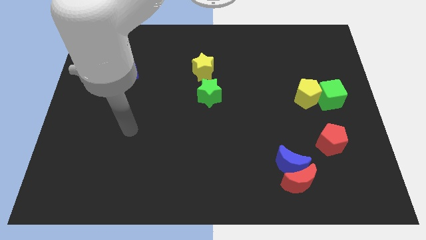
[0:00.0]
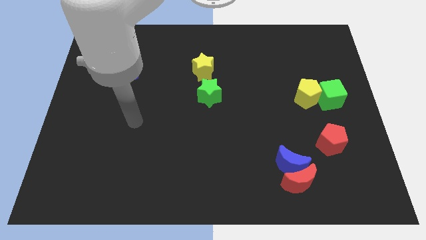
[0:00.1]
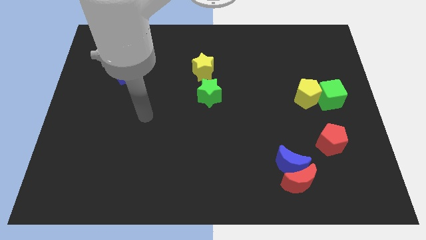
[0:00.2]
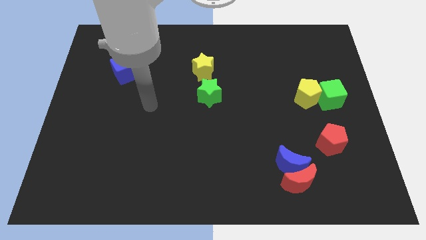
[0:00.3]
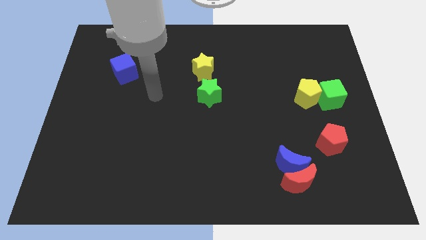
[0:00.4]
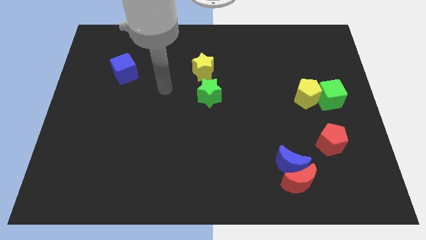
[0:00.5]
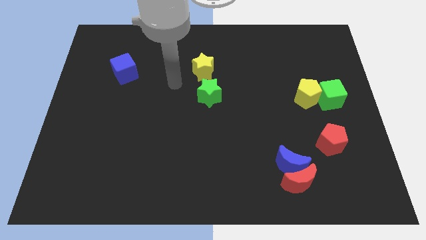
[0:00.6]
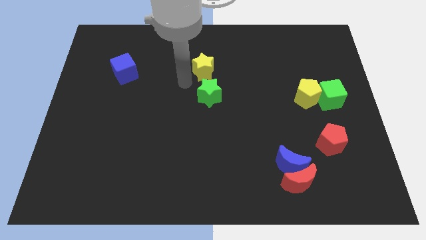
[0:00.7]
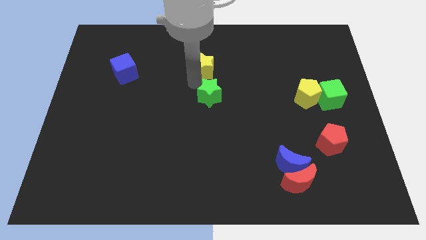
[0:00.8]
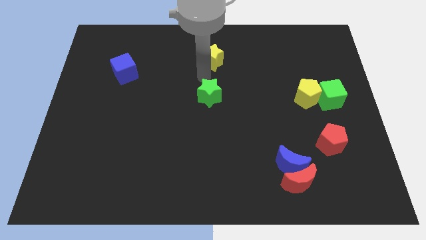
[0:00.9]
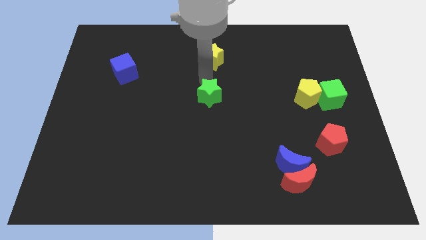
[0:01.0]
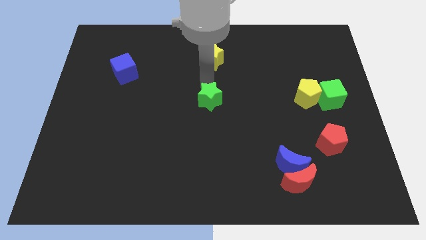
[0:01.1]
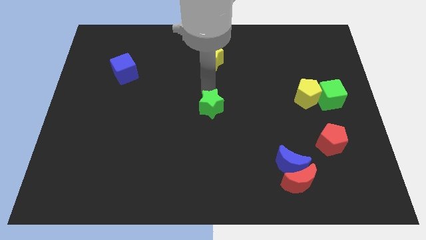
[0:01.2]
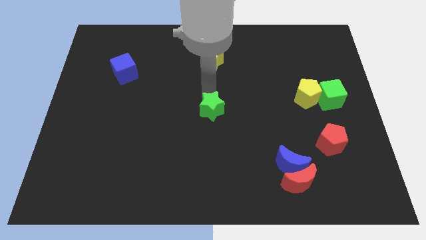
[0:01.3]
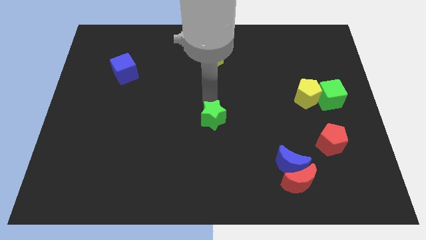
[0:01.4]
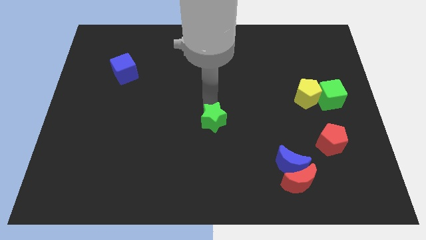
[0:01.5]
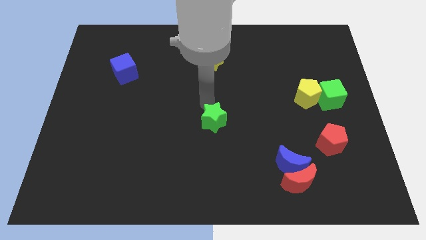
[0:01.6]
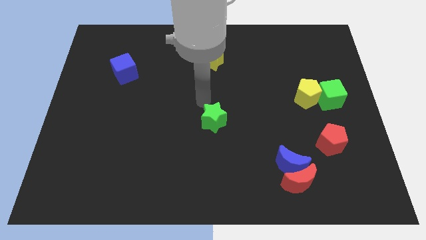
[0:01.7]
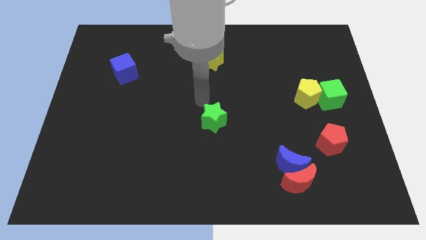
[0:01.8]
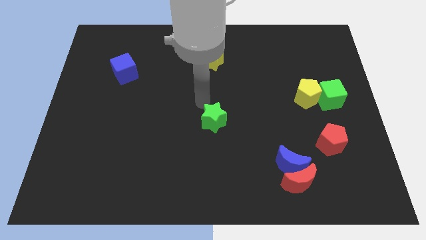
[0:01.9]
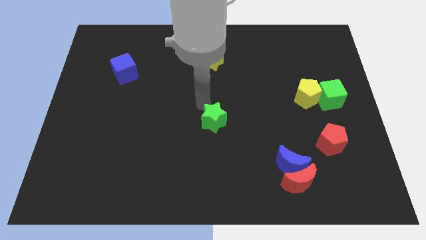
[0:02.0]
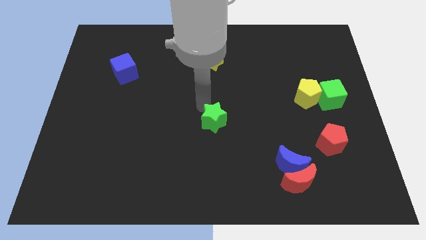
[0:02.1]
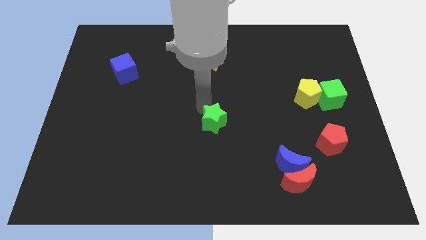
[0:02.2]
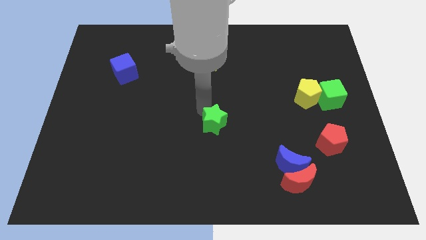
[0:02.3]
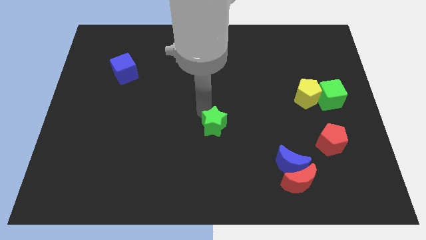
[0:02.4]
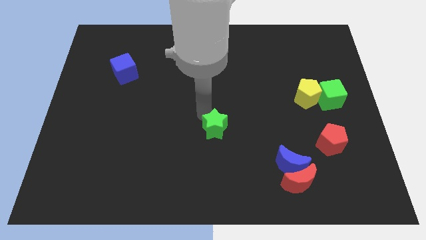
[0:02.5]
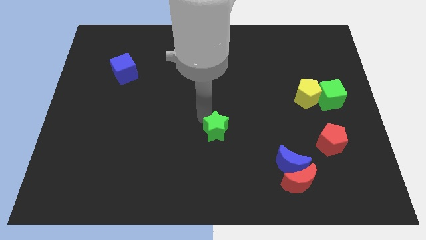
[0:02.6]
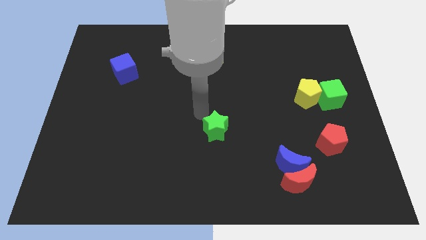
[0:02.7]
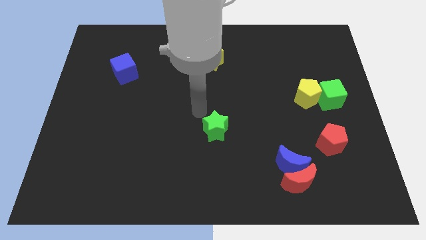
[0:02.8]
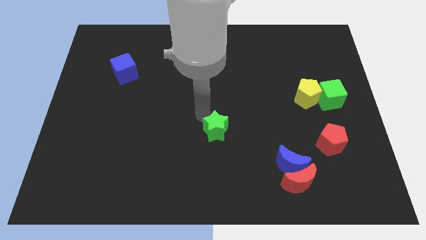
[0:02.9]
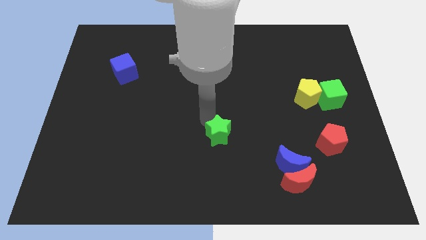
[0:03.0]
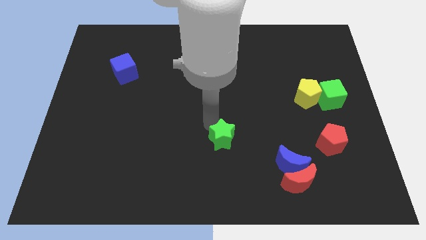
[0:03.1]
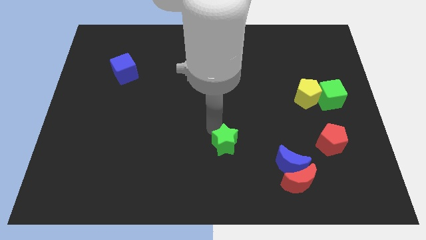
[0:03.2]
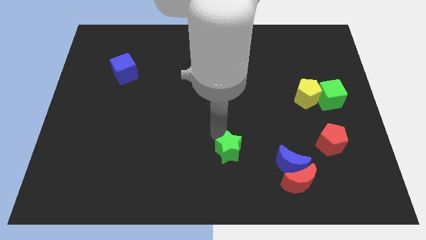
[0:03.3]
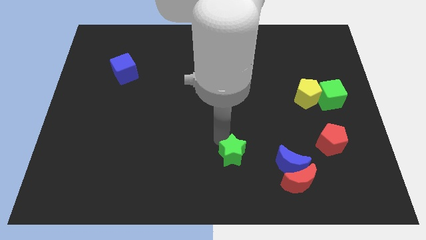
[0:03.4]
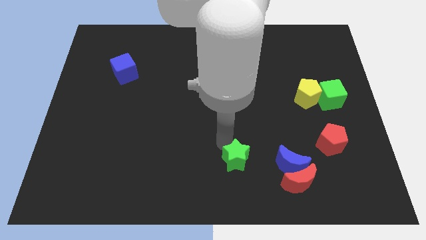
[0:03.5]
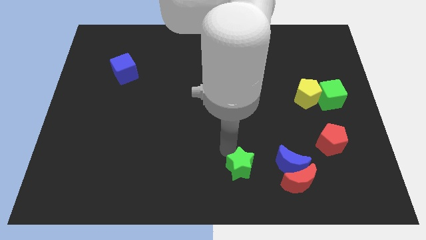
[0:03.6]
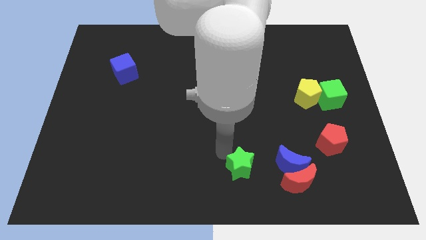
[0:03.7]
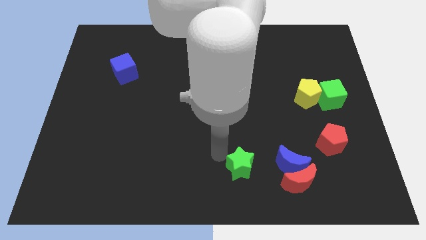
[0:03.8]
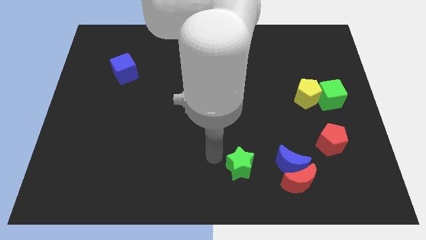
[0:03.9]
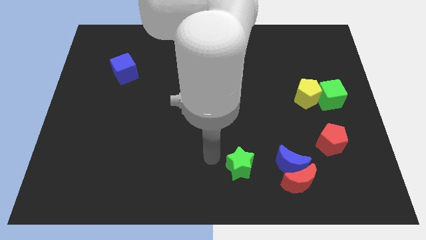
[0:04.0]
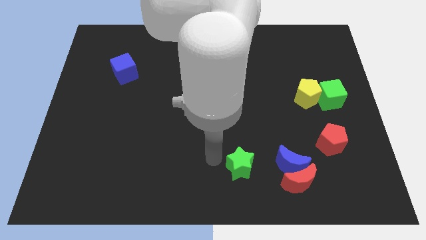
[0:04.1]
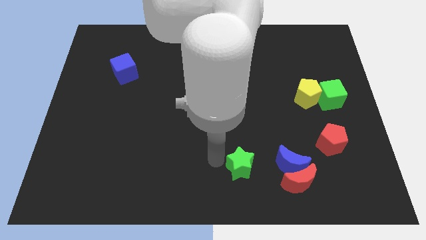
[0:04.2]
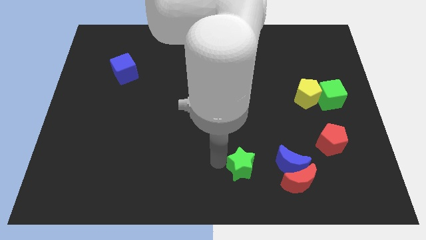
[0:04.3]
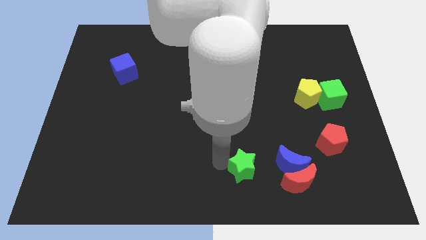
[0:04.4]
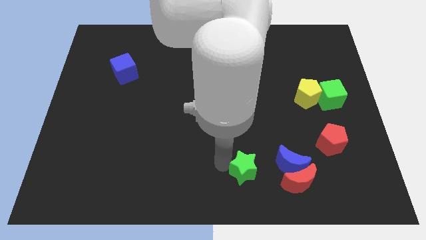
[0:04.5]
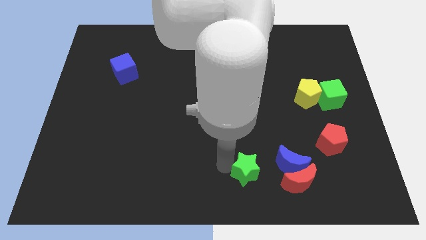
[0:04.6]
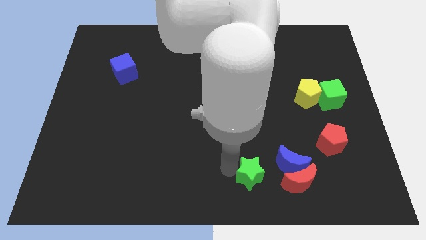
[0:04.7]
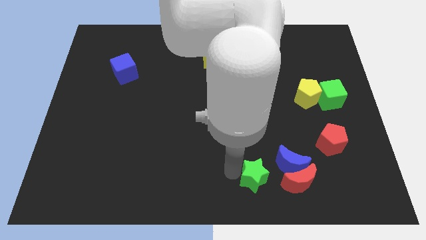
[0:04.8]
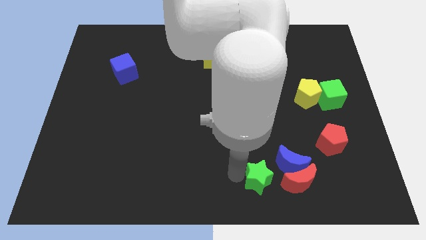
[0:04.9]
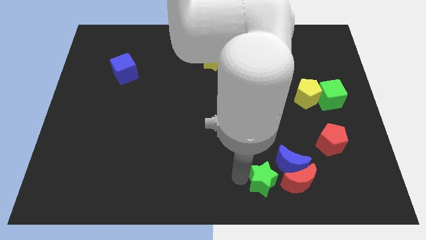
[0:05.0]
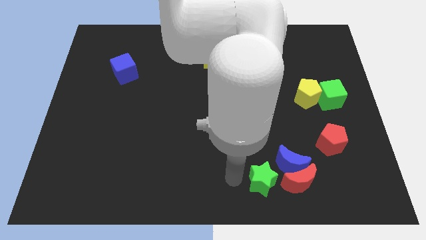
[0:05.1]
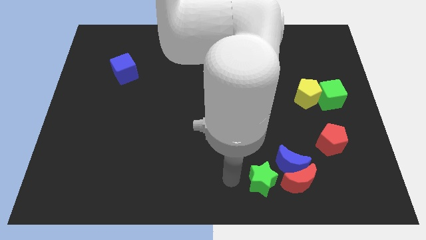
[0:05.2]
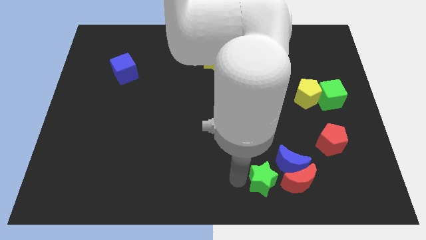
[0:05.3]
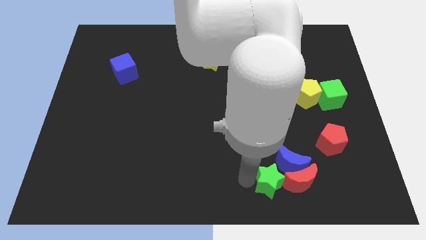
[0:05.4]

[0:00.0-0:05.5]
move the green star to the red moon

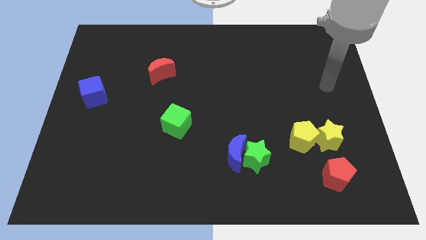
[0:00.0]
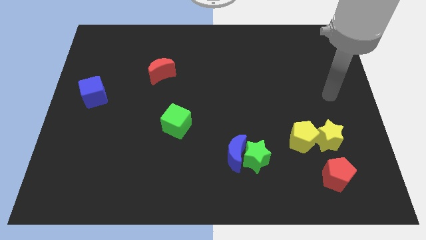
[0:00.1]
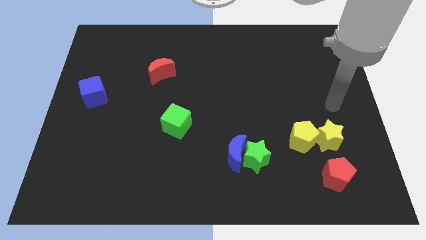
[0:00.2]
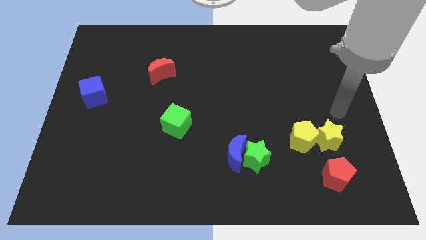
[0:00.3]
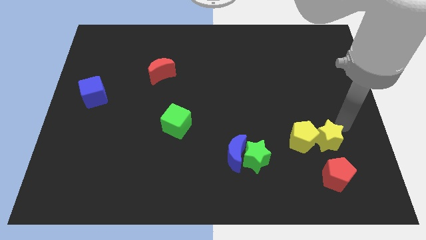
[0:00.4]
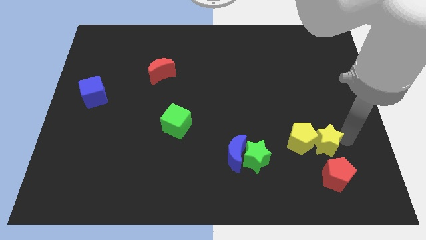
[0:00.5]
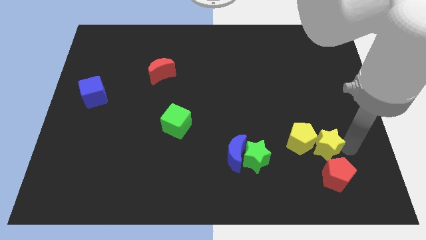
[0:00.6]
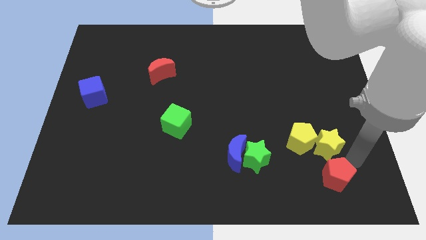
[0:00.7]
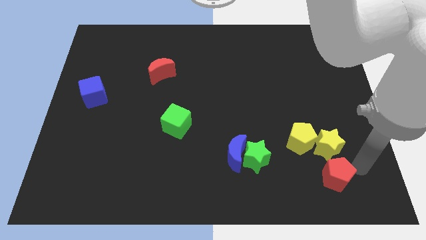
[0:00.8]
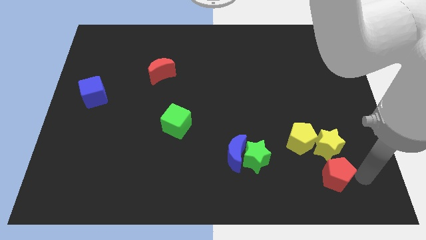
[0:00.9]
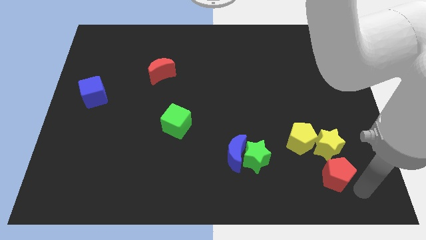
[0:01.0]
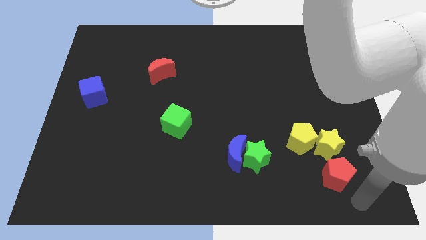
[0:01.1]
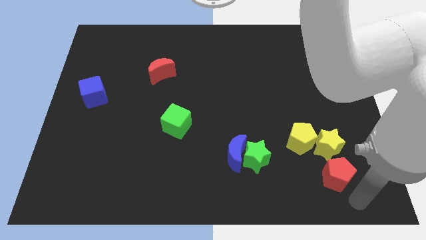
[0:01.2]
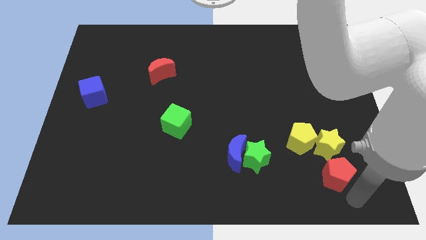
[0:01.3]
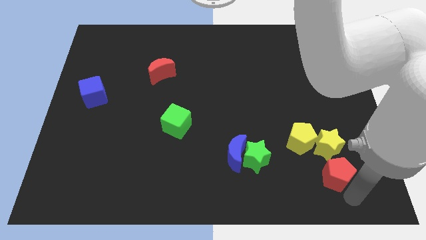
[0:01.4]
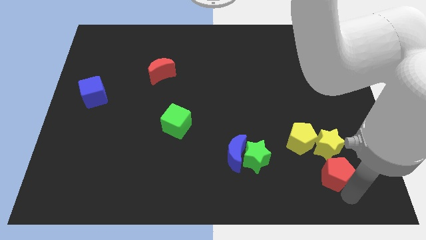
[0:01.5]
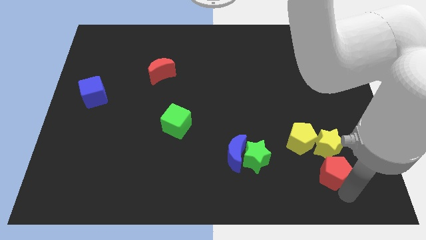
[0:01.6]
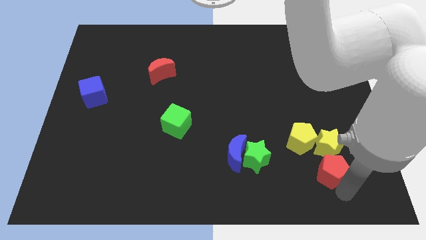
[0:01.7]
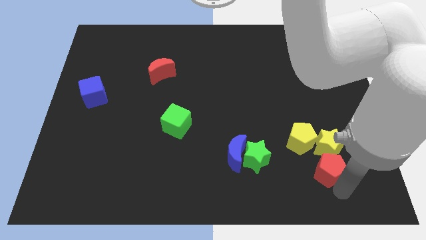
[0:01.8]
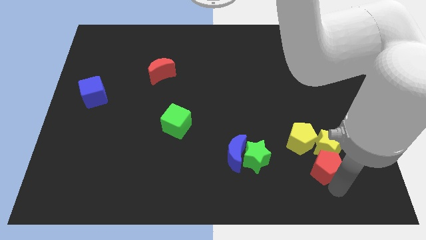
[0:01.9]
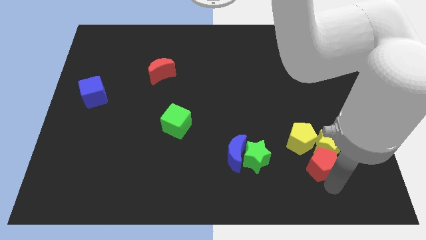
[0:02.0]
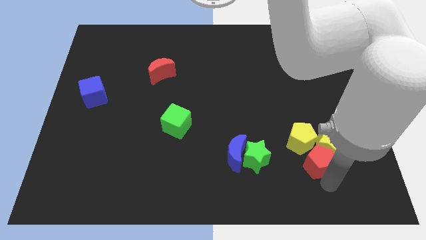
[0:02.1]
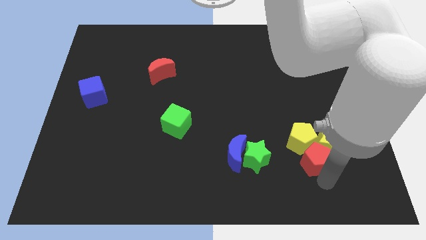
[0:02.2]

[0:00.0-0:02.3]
push the red pentagon next to the yellow pentagon

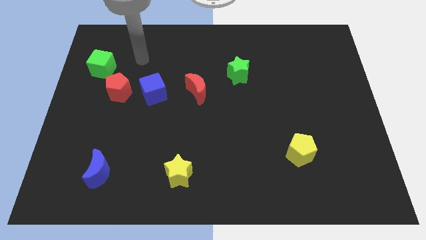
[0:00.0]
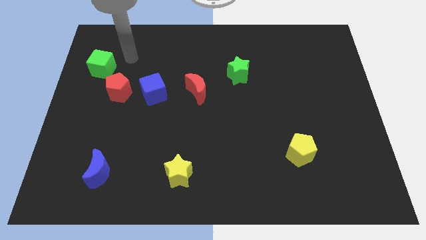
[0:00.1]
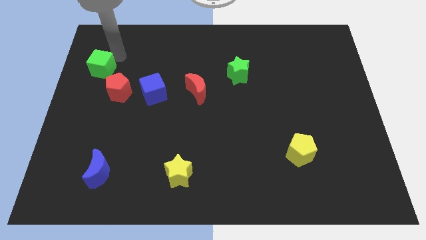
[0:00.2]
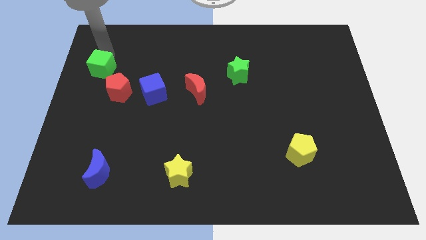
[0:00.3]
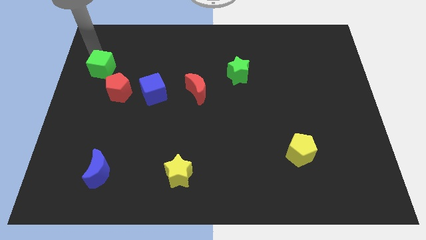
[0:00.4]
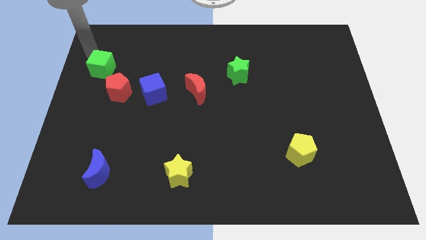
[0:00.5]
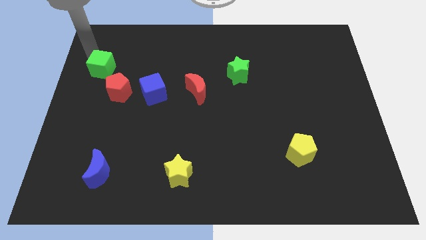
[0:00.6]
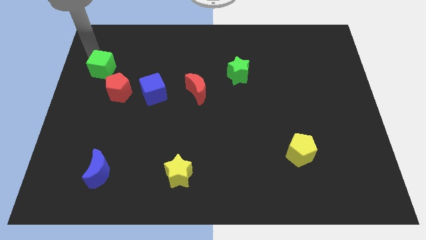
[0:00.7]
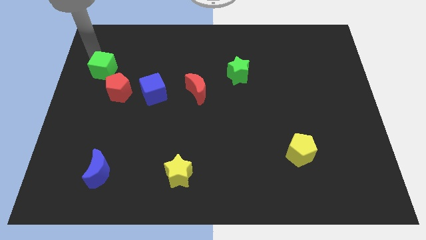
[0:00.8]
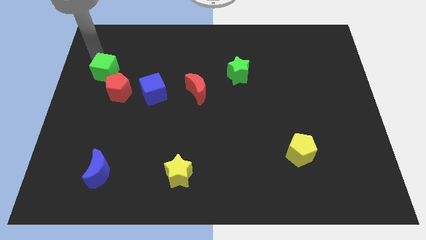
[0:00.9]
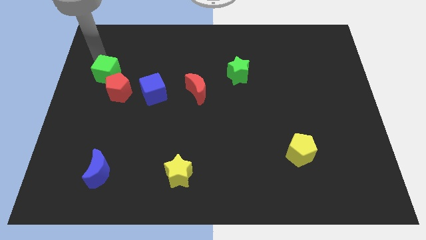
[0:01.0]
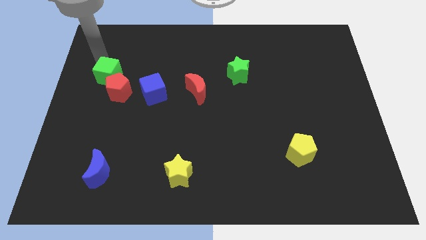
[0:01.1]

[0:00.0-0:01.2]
move the green cube next to the red pentagon
